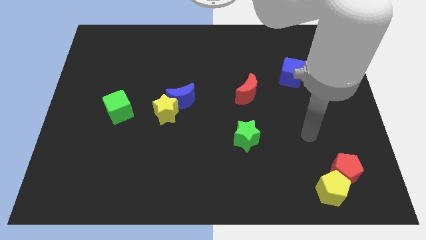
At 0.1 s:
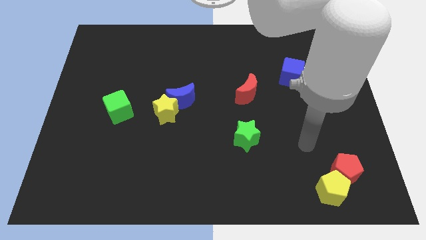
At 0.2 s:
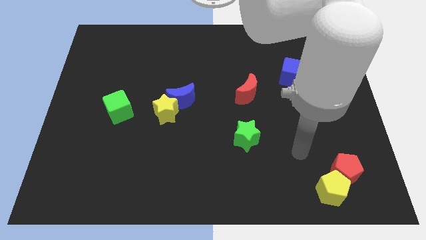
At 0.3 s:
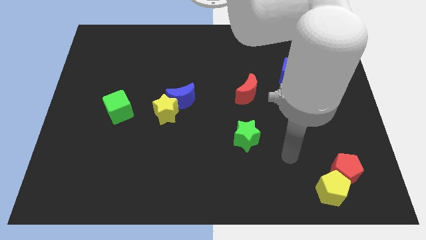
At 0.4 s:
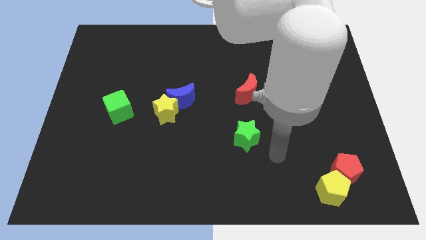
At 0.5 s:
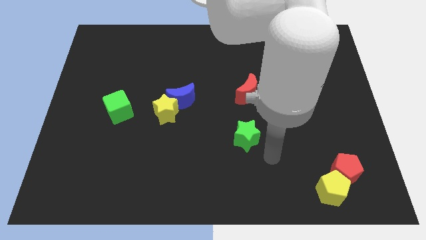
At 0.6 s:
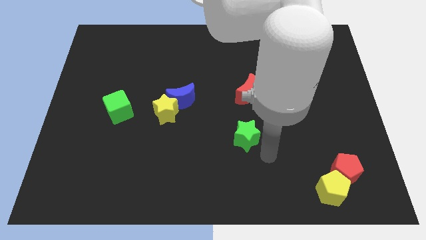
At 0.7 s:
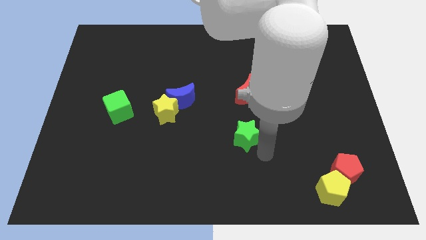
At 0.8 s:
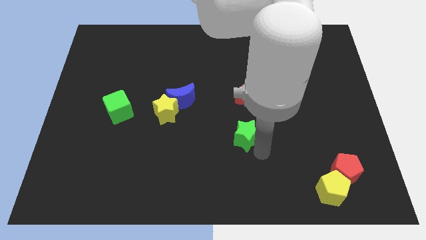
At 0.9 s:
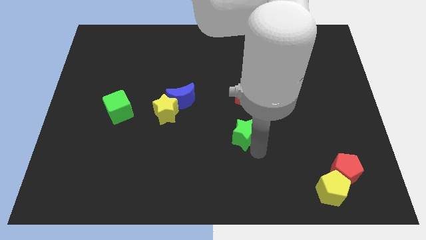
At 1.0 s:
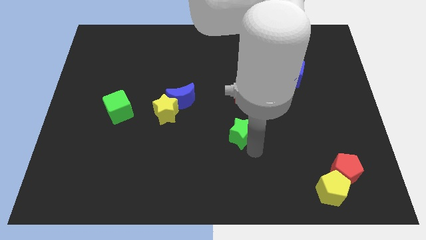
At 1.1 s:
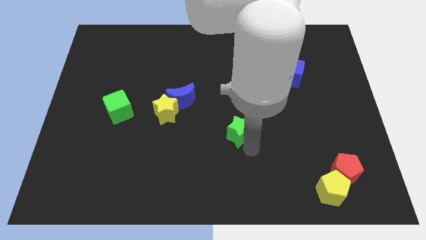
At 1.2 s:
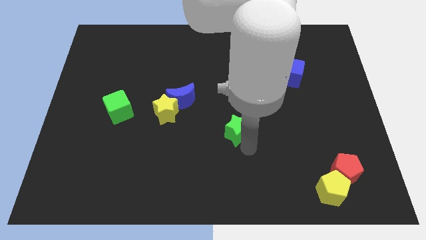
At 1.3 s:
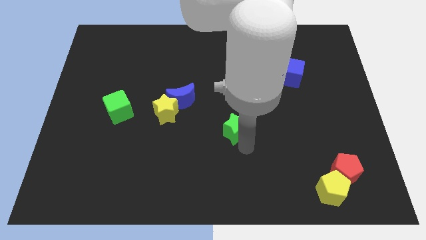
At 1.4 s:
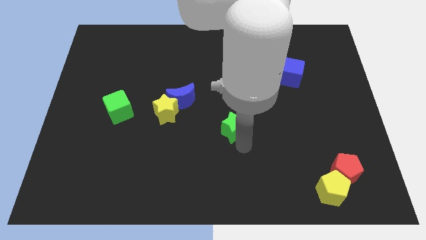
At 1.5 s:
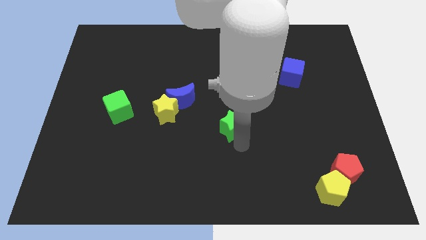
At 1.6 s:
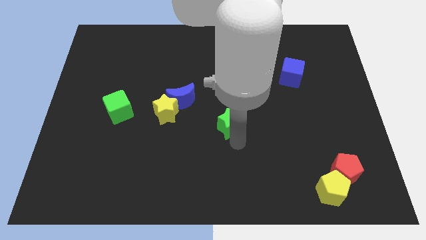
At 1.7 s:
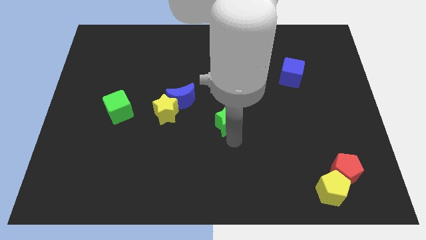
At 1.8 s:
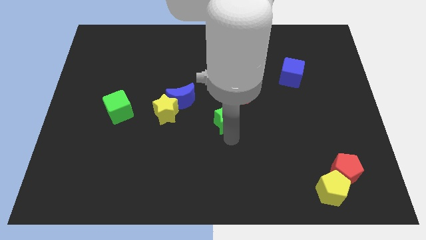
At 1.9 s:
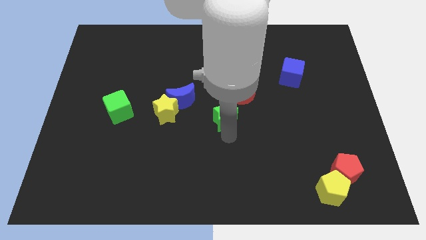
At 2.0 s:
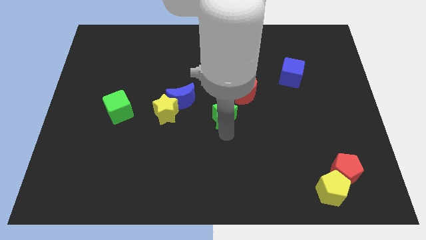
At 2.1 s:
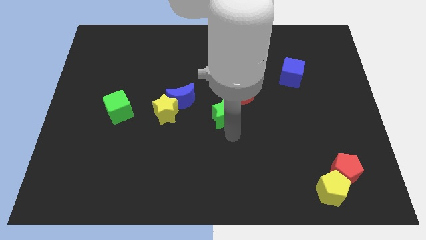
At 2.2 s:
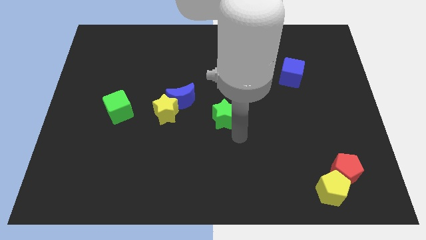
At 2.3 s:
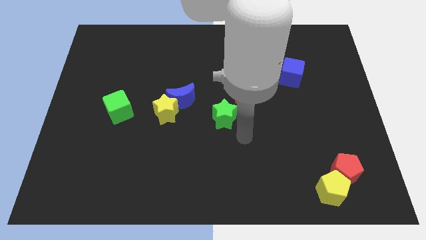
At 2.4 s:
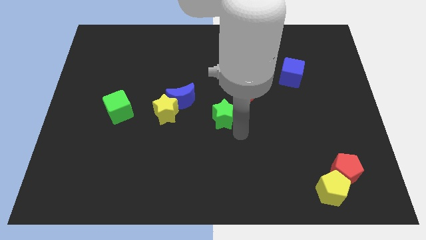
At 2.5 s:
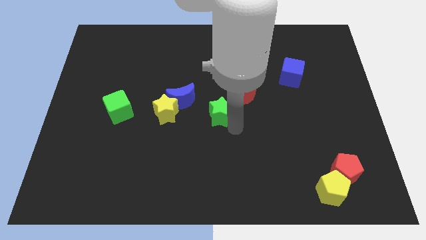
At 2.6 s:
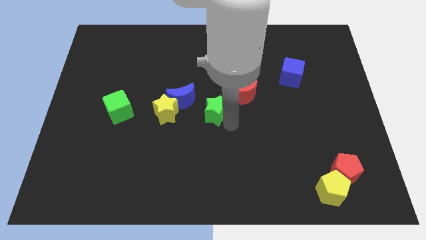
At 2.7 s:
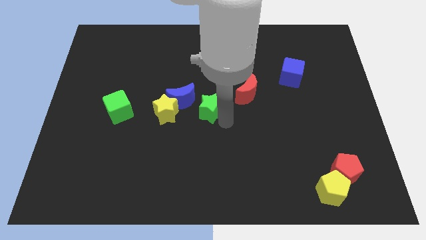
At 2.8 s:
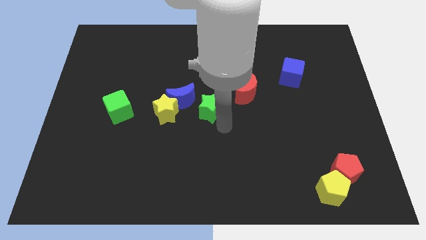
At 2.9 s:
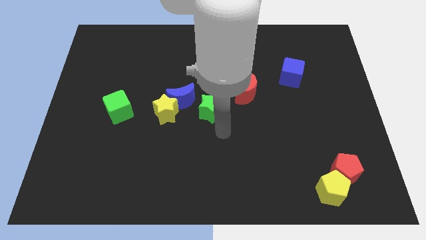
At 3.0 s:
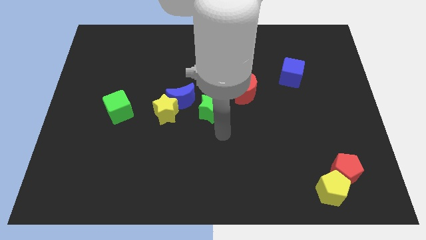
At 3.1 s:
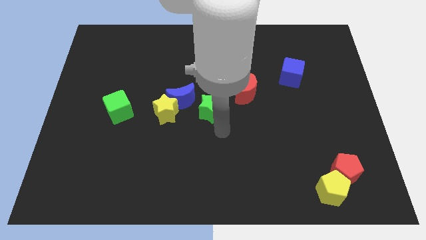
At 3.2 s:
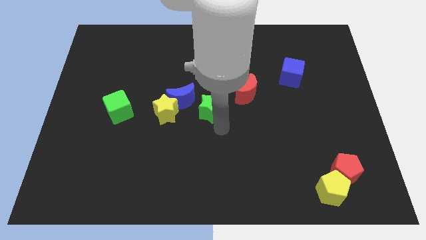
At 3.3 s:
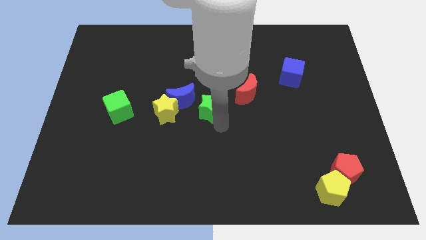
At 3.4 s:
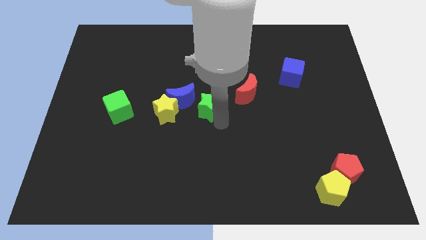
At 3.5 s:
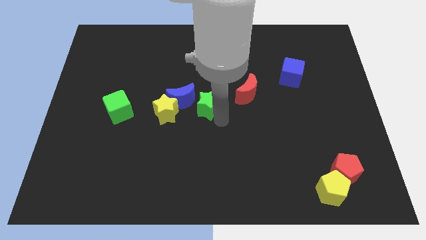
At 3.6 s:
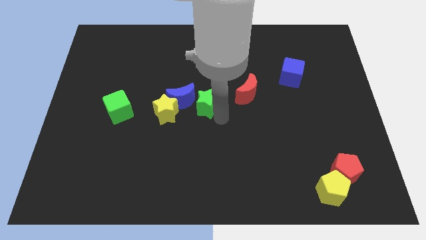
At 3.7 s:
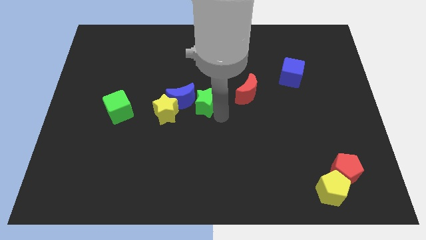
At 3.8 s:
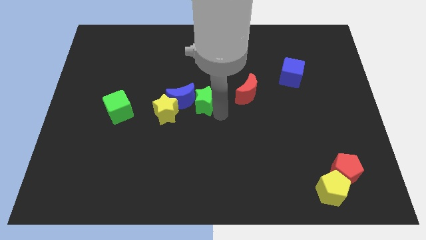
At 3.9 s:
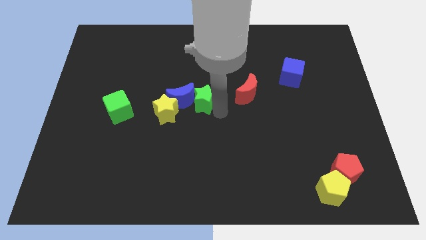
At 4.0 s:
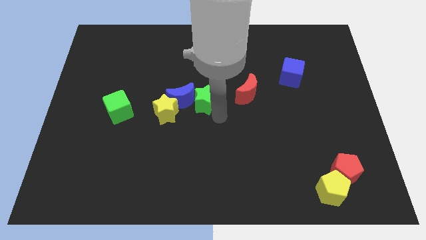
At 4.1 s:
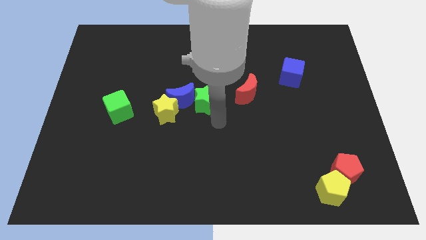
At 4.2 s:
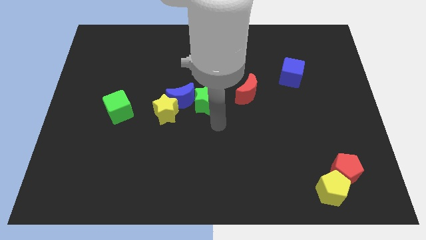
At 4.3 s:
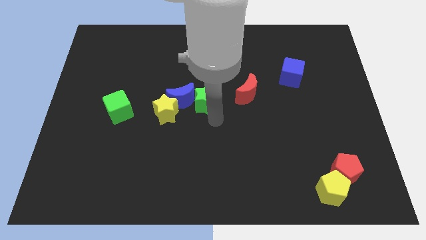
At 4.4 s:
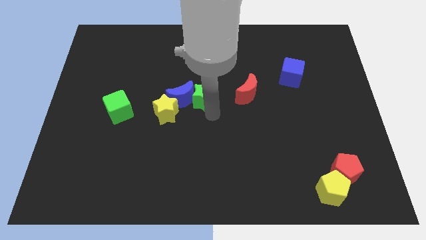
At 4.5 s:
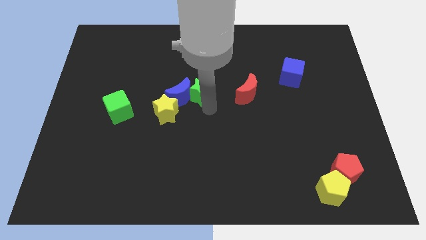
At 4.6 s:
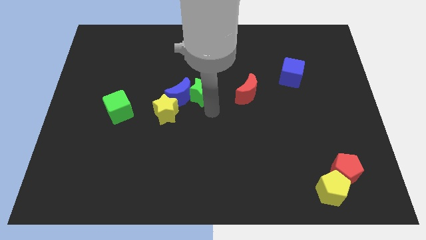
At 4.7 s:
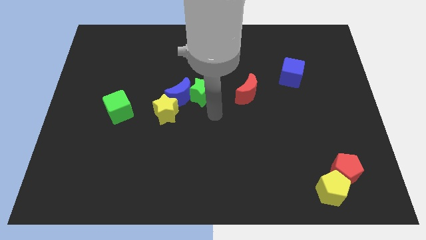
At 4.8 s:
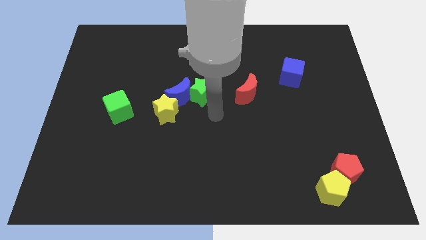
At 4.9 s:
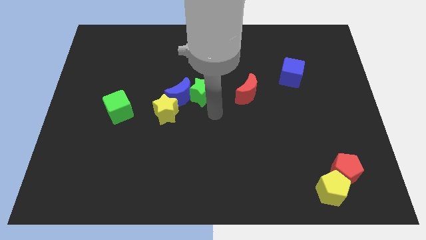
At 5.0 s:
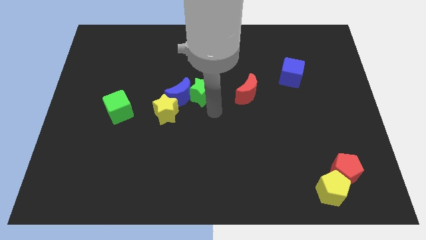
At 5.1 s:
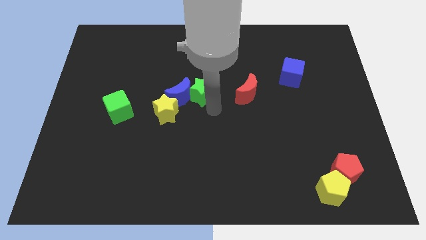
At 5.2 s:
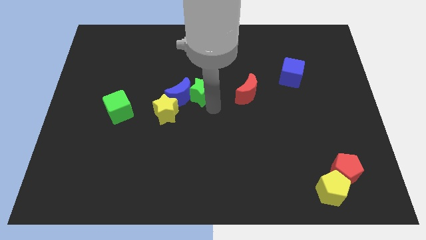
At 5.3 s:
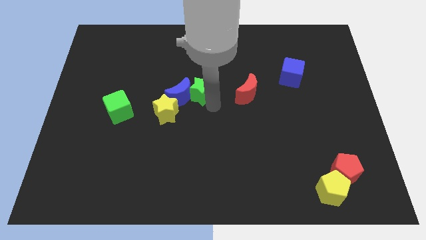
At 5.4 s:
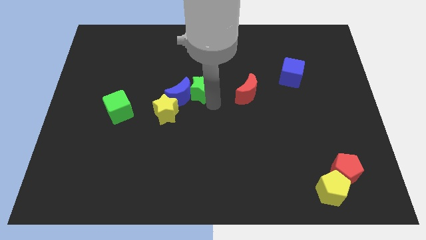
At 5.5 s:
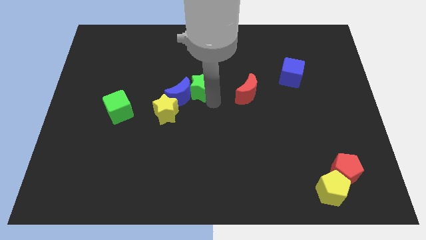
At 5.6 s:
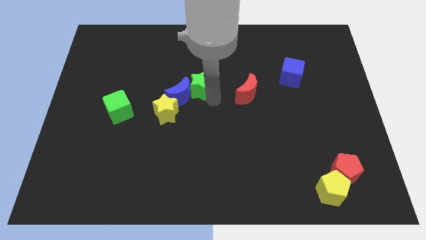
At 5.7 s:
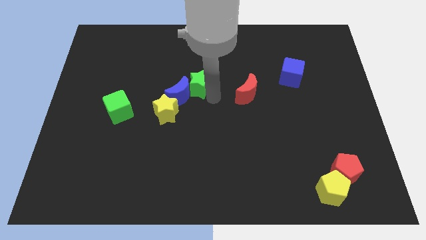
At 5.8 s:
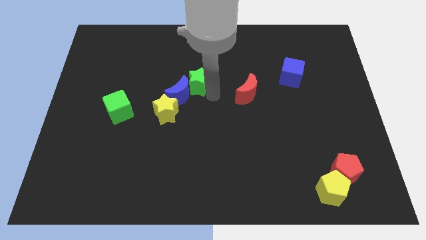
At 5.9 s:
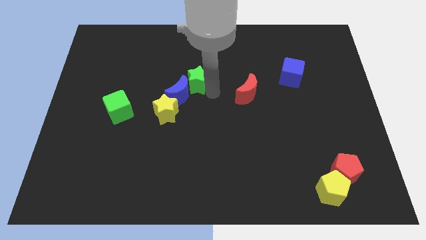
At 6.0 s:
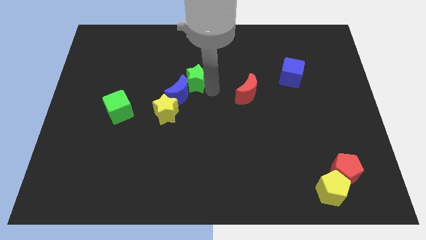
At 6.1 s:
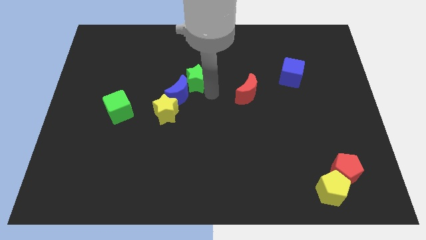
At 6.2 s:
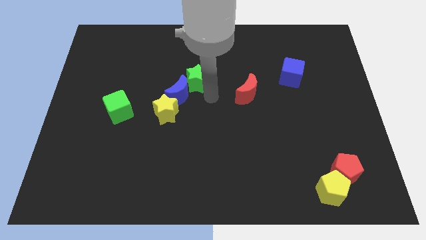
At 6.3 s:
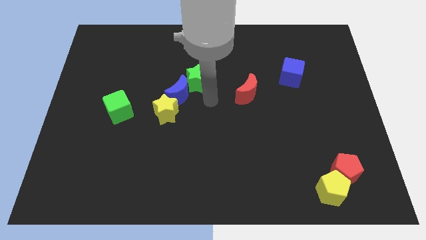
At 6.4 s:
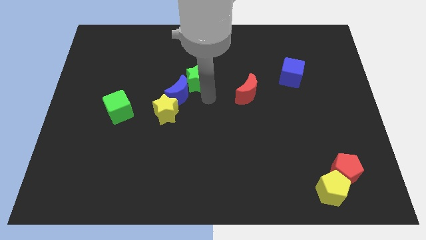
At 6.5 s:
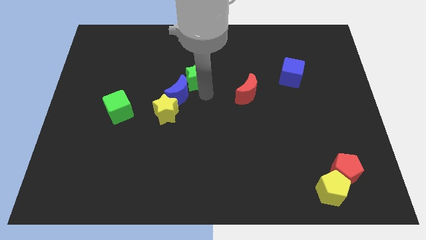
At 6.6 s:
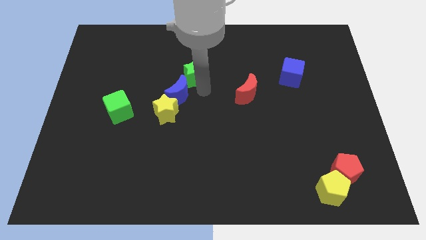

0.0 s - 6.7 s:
push the green star diagonally up and to the left

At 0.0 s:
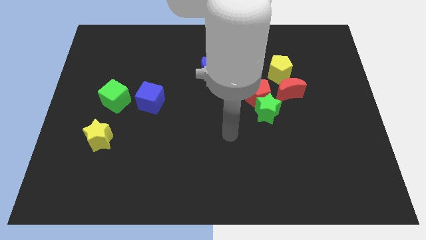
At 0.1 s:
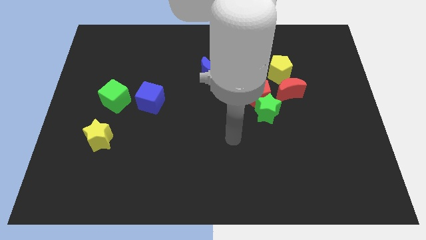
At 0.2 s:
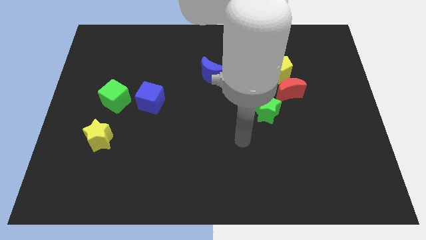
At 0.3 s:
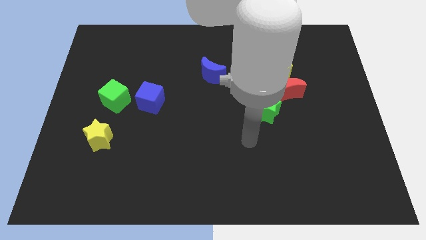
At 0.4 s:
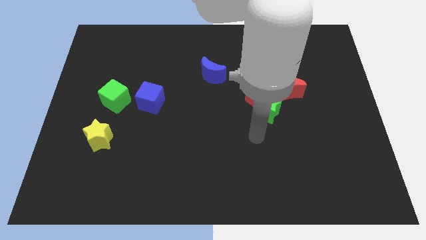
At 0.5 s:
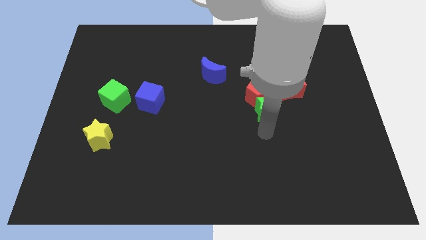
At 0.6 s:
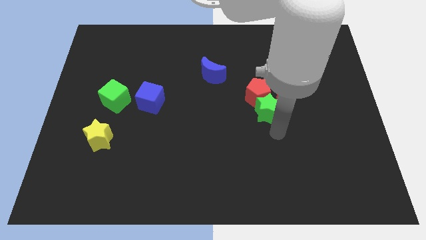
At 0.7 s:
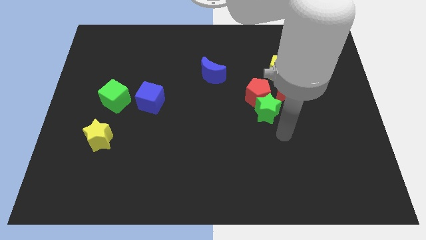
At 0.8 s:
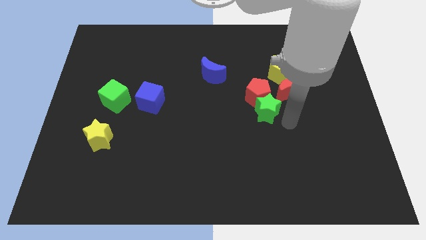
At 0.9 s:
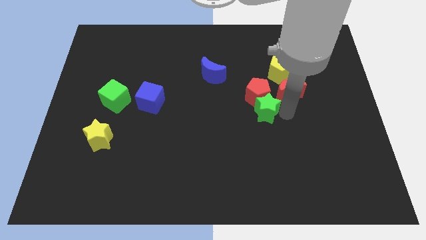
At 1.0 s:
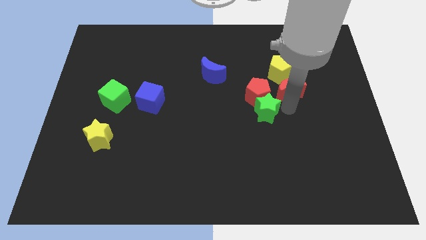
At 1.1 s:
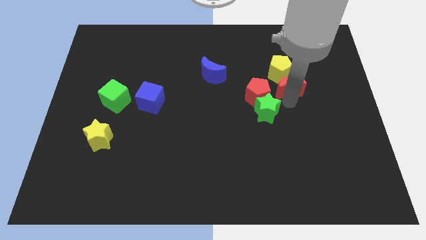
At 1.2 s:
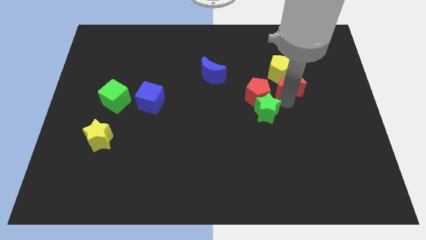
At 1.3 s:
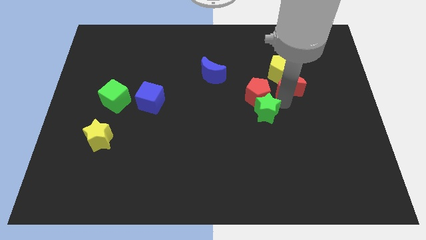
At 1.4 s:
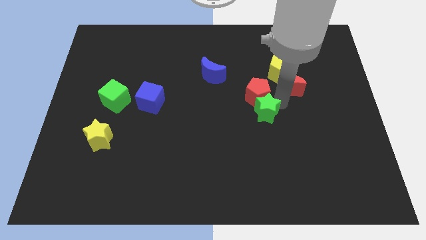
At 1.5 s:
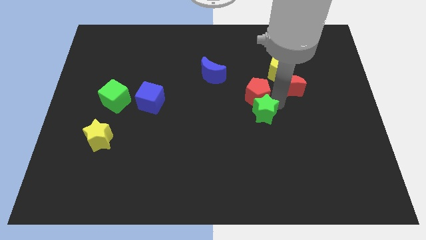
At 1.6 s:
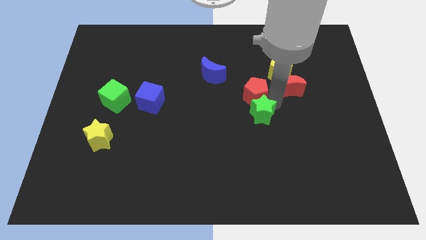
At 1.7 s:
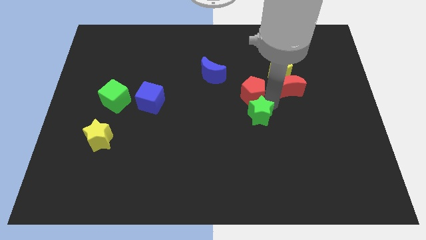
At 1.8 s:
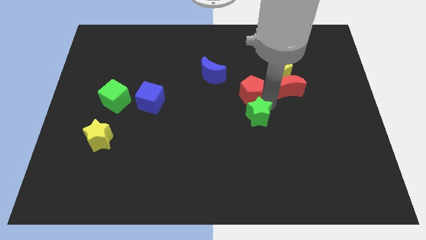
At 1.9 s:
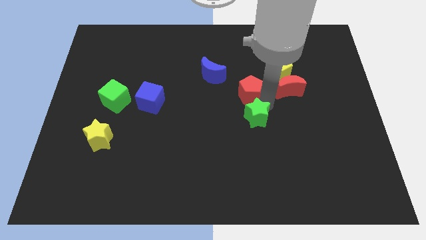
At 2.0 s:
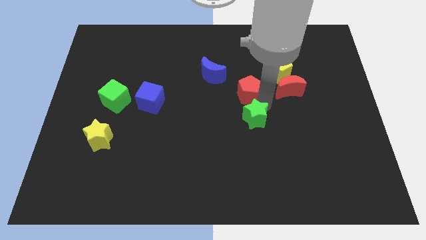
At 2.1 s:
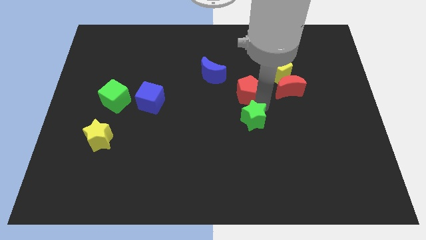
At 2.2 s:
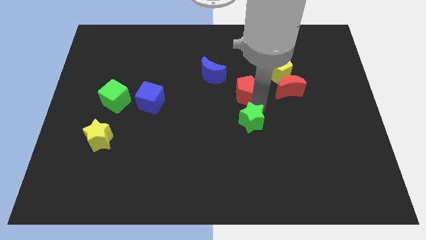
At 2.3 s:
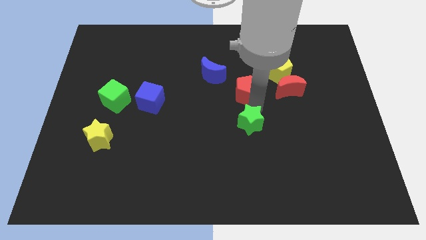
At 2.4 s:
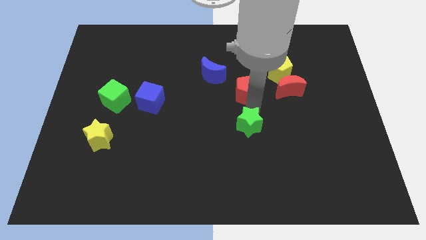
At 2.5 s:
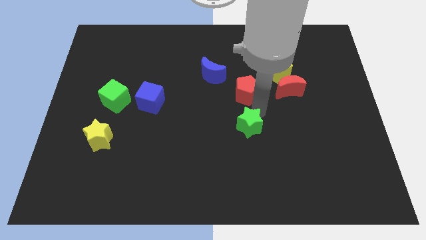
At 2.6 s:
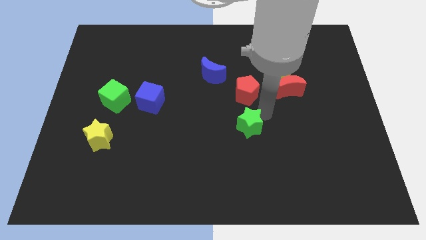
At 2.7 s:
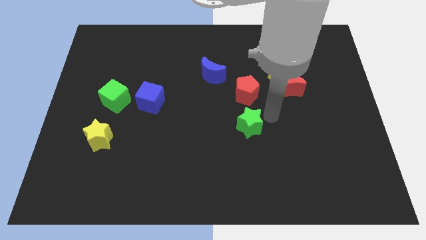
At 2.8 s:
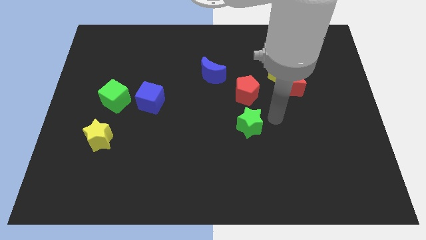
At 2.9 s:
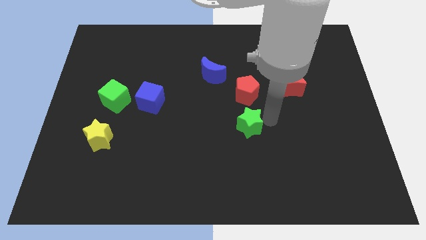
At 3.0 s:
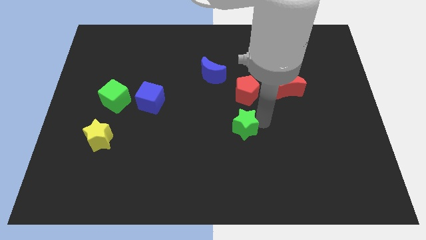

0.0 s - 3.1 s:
slide the green star somewhat diagonally down and left
